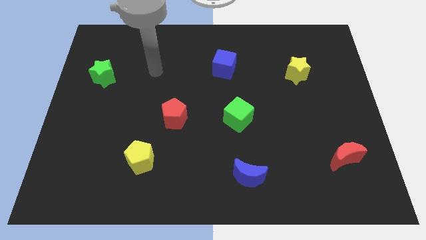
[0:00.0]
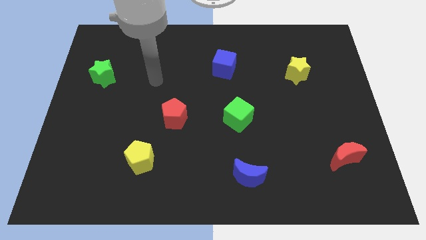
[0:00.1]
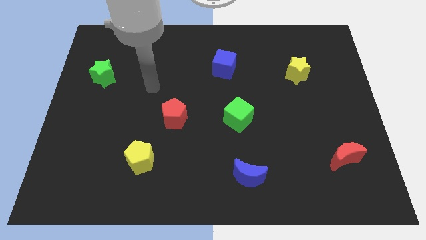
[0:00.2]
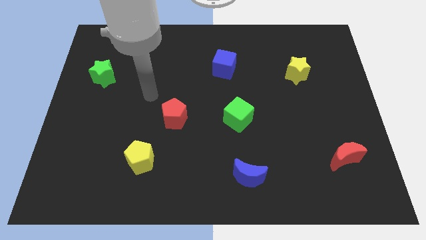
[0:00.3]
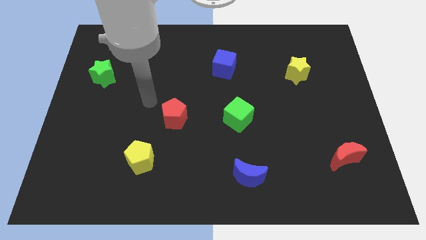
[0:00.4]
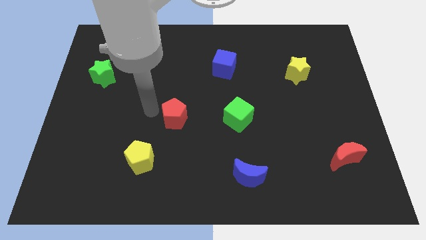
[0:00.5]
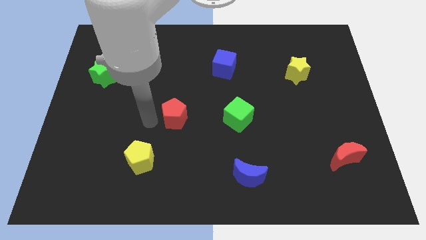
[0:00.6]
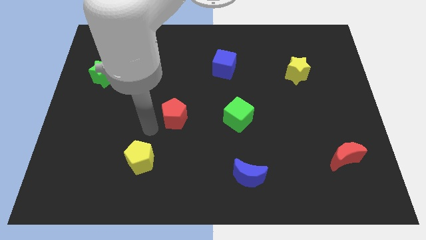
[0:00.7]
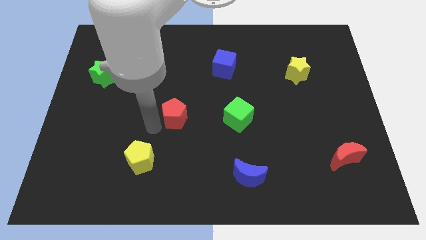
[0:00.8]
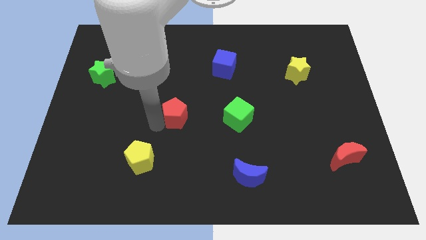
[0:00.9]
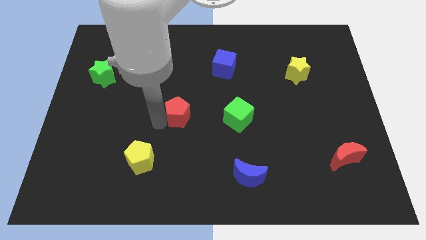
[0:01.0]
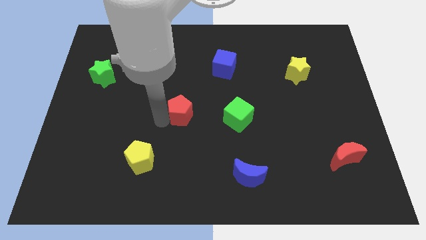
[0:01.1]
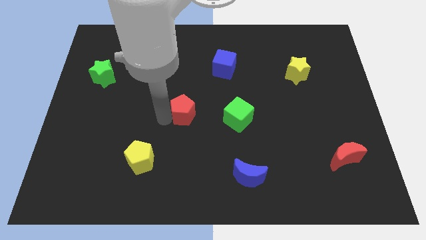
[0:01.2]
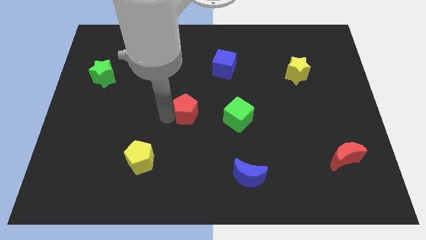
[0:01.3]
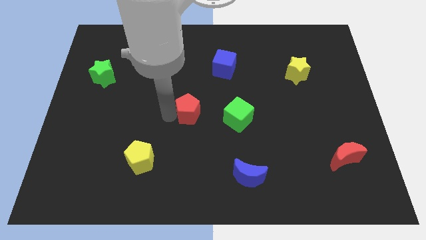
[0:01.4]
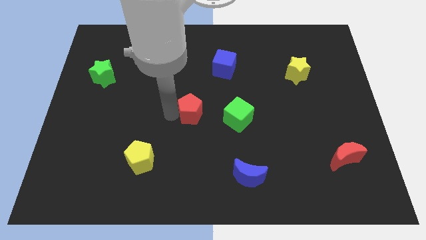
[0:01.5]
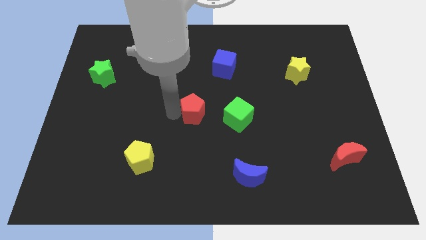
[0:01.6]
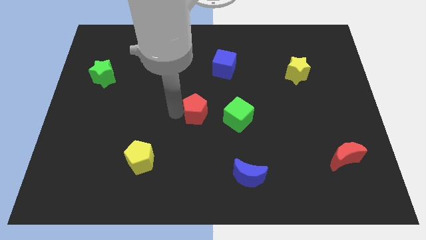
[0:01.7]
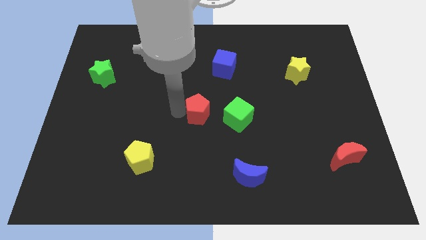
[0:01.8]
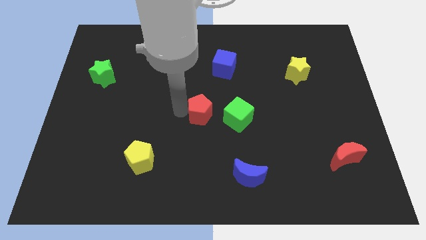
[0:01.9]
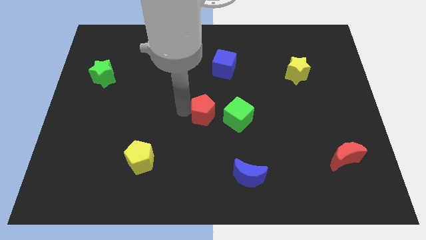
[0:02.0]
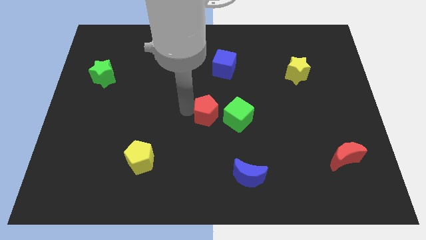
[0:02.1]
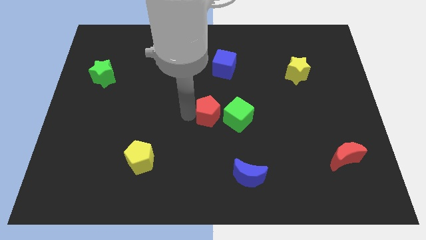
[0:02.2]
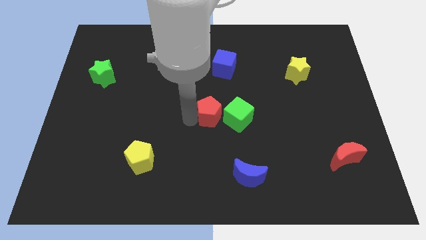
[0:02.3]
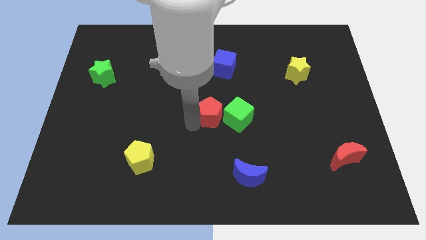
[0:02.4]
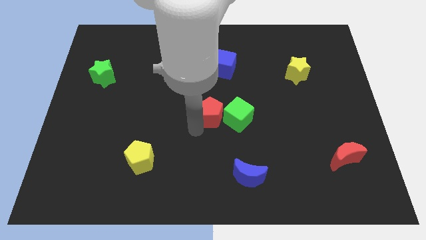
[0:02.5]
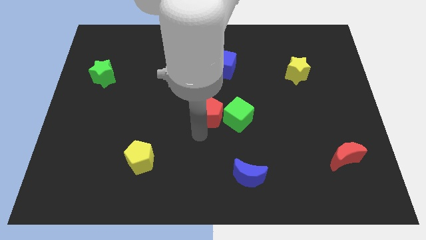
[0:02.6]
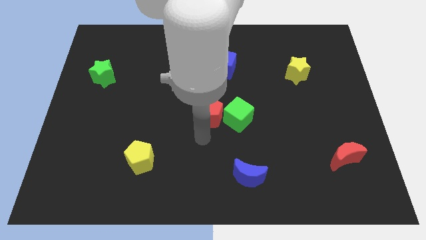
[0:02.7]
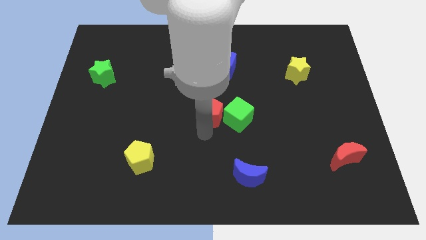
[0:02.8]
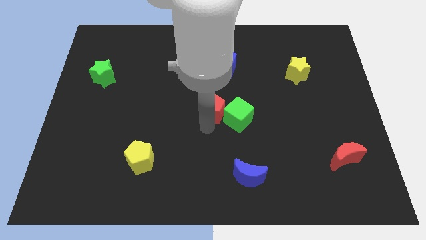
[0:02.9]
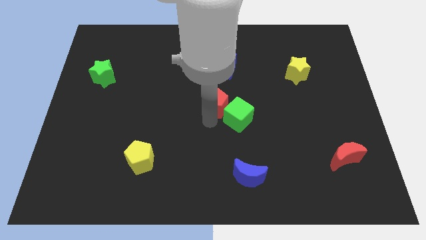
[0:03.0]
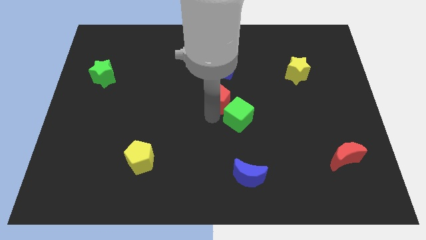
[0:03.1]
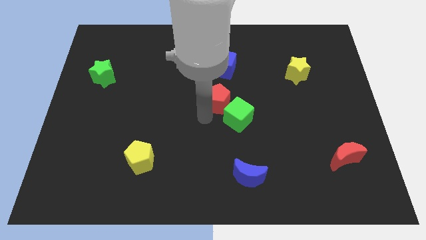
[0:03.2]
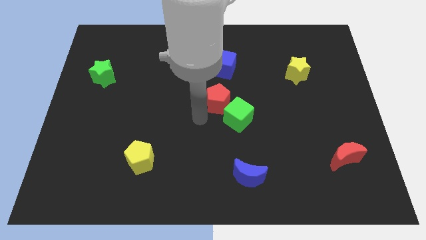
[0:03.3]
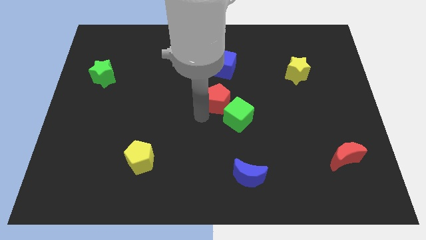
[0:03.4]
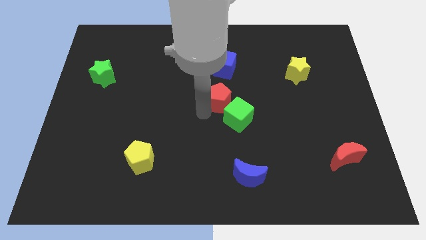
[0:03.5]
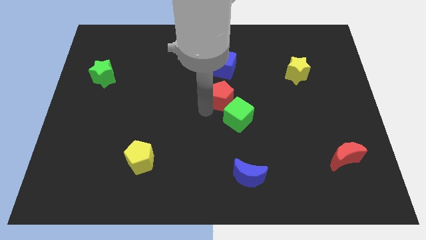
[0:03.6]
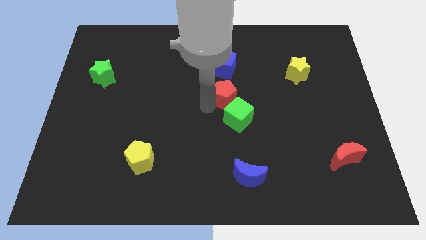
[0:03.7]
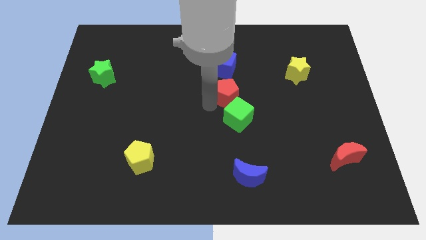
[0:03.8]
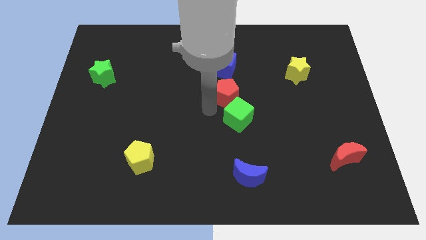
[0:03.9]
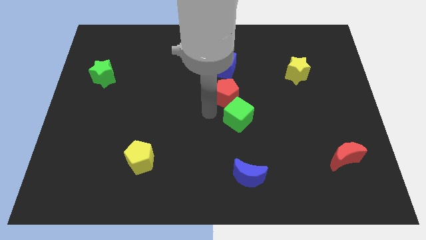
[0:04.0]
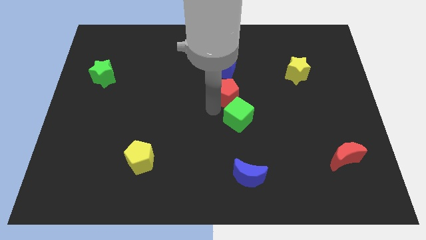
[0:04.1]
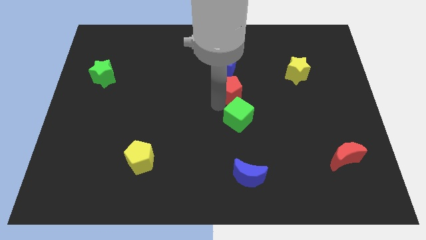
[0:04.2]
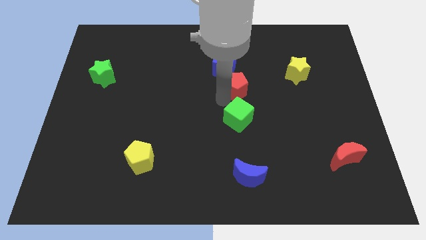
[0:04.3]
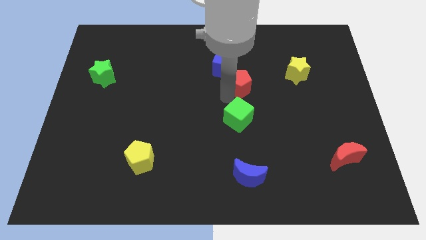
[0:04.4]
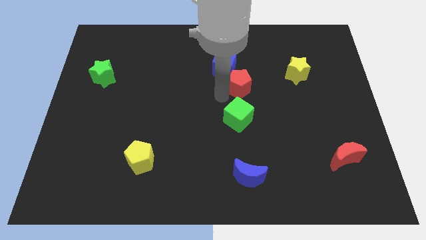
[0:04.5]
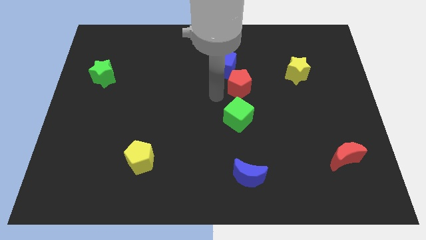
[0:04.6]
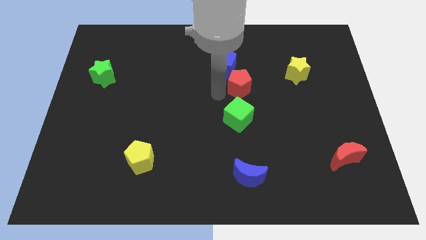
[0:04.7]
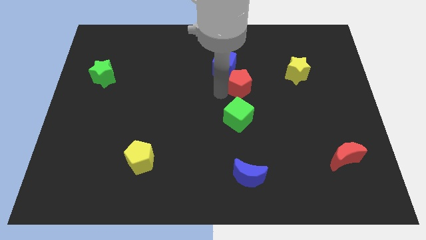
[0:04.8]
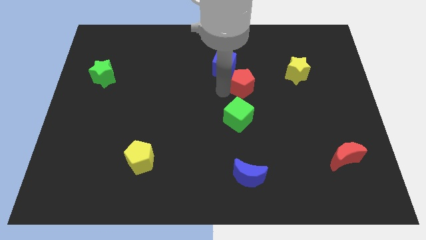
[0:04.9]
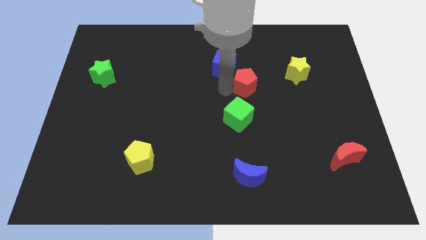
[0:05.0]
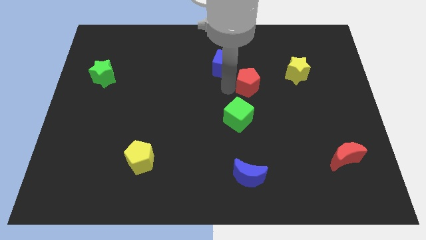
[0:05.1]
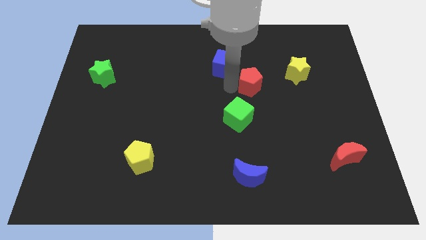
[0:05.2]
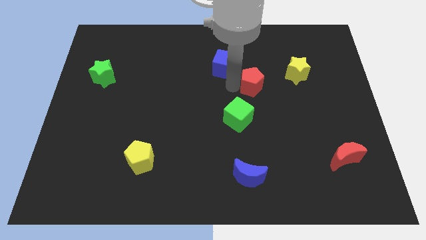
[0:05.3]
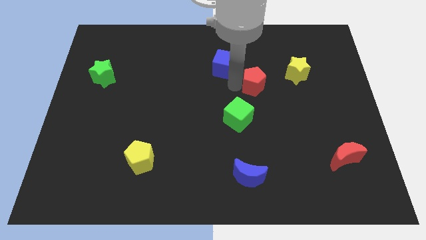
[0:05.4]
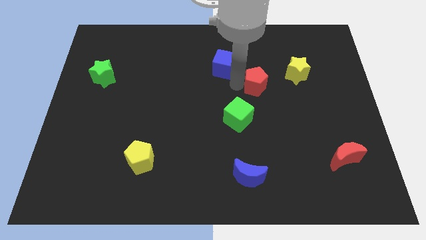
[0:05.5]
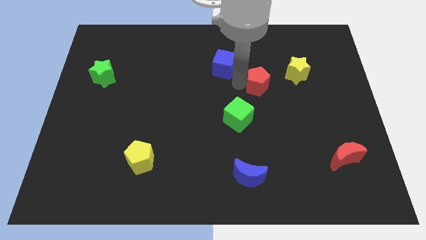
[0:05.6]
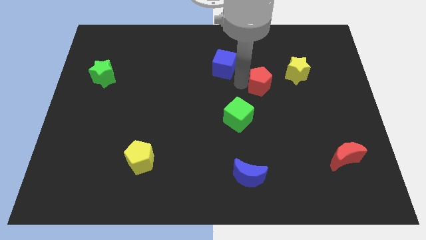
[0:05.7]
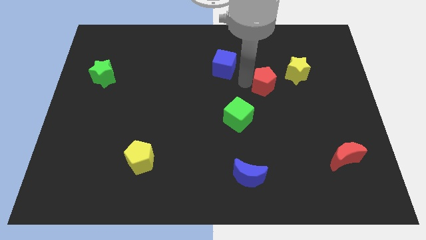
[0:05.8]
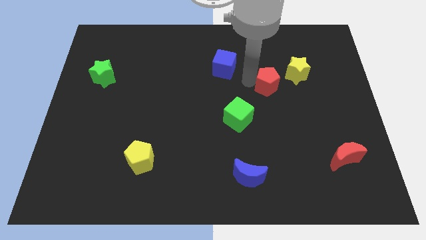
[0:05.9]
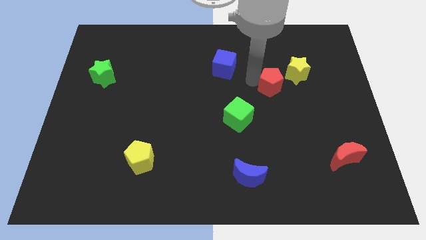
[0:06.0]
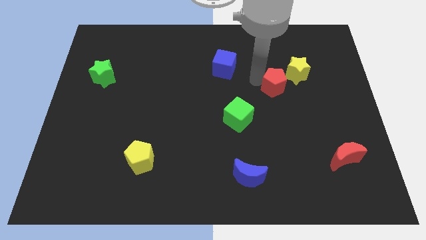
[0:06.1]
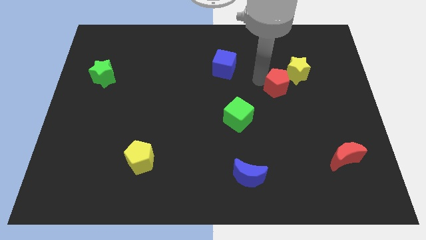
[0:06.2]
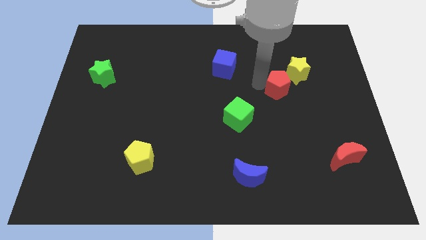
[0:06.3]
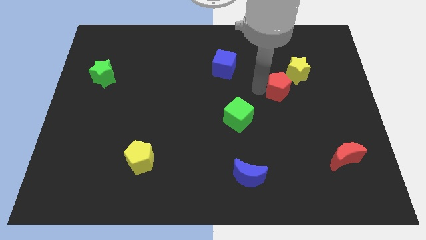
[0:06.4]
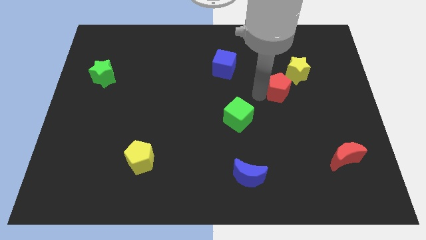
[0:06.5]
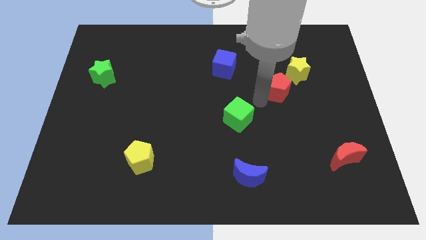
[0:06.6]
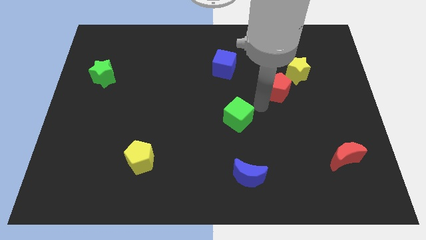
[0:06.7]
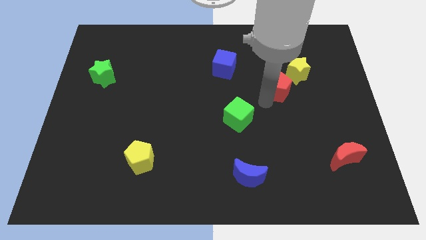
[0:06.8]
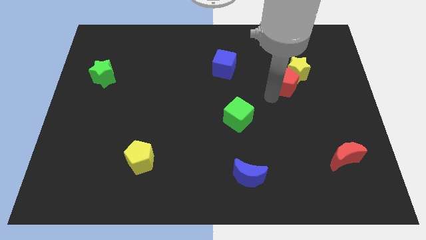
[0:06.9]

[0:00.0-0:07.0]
put the red pentagon close to the yellow star
